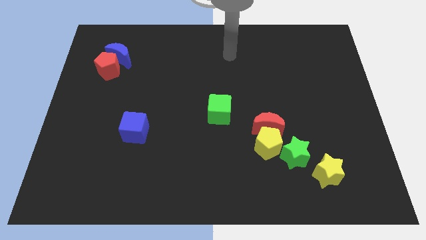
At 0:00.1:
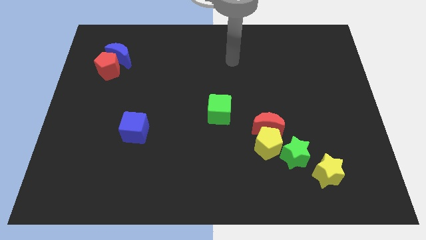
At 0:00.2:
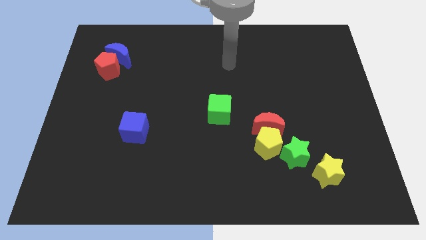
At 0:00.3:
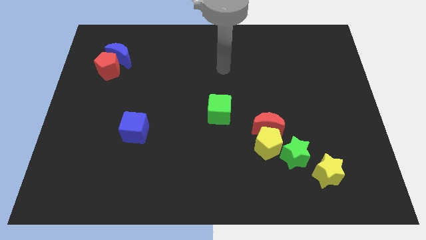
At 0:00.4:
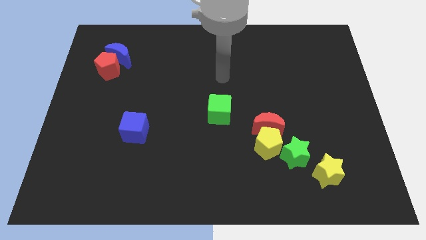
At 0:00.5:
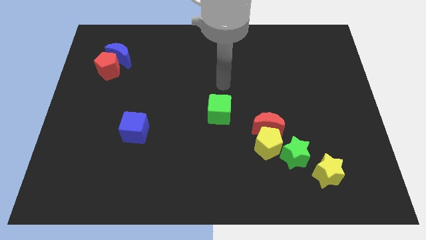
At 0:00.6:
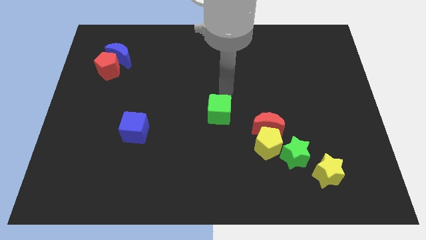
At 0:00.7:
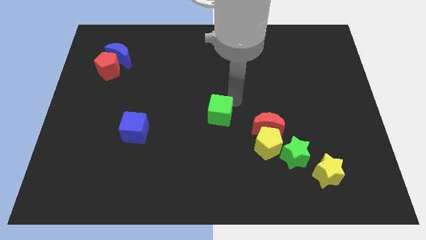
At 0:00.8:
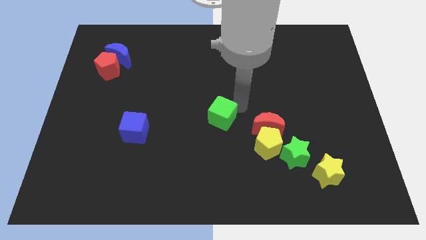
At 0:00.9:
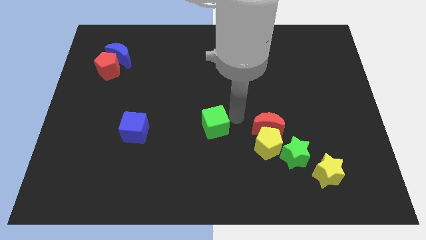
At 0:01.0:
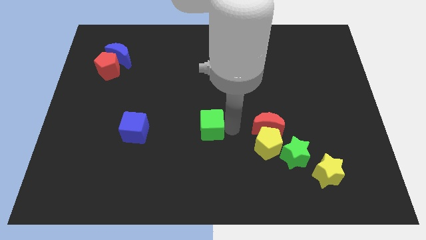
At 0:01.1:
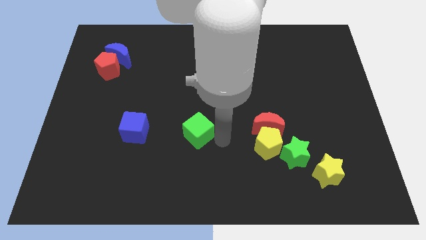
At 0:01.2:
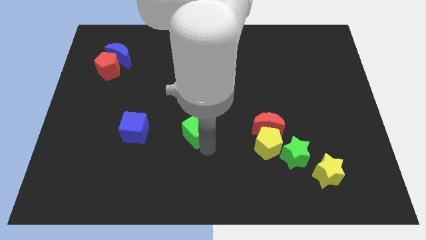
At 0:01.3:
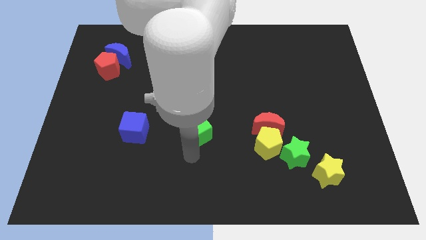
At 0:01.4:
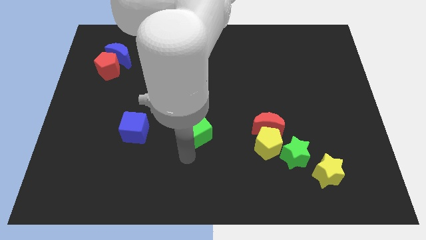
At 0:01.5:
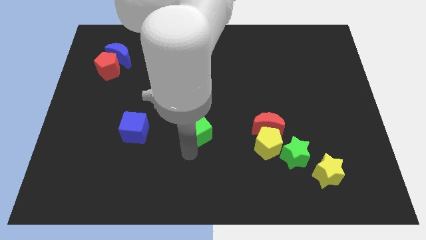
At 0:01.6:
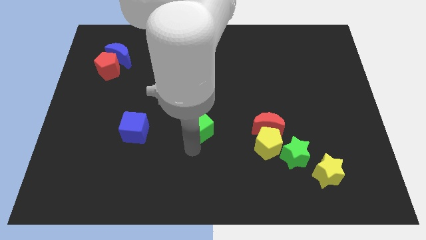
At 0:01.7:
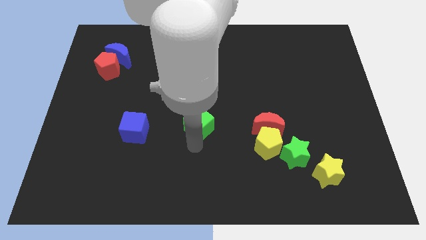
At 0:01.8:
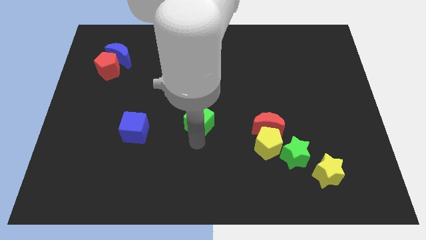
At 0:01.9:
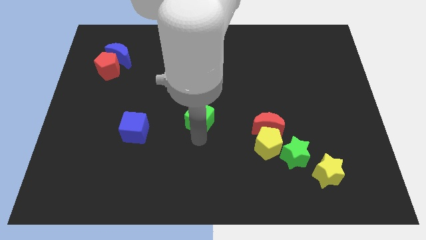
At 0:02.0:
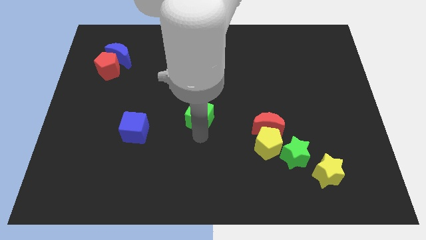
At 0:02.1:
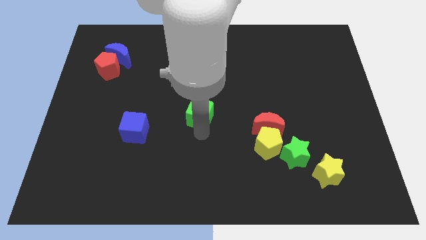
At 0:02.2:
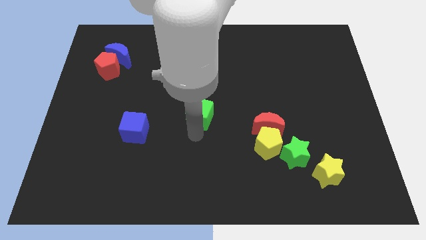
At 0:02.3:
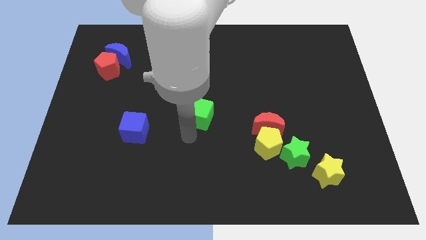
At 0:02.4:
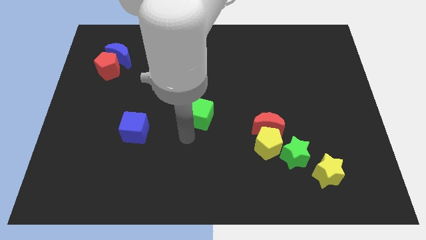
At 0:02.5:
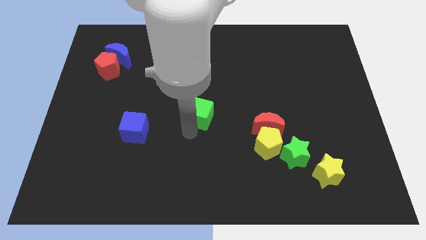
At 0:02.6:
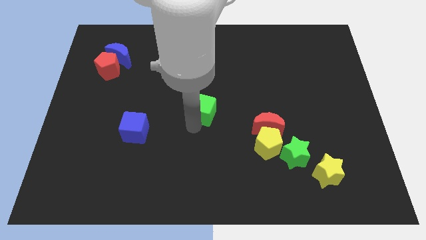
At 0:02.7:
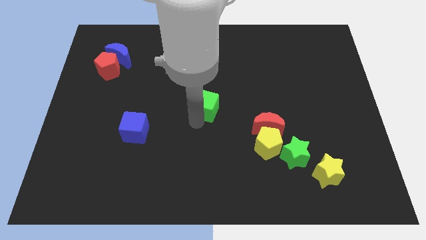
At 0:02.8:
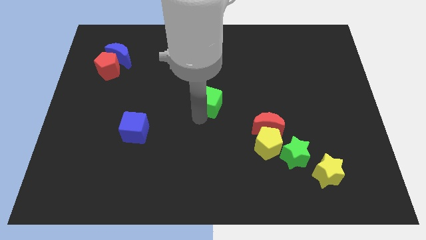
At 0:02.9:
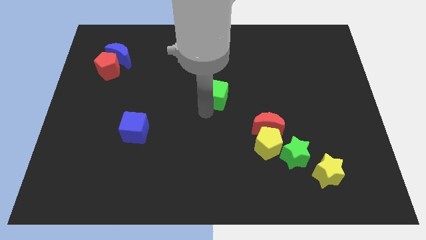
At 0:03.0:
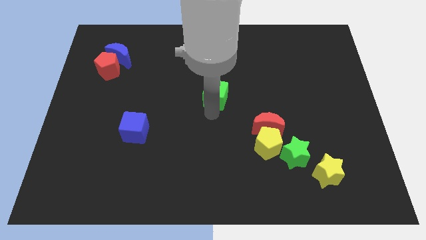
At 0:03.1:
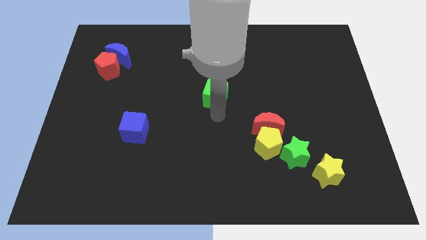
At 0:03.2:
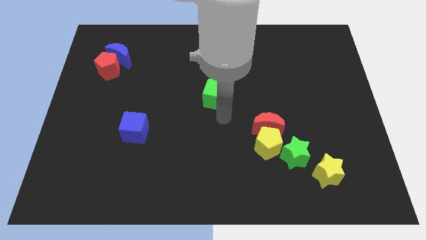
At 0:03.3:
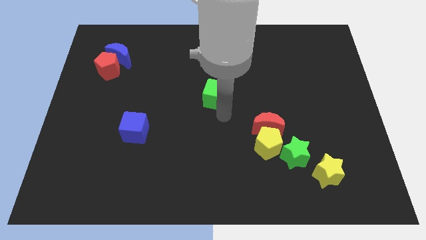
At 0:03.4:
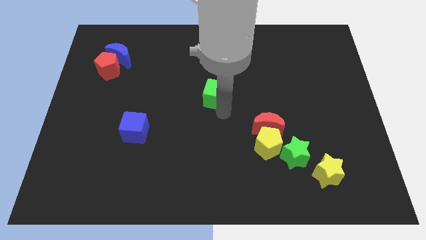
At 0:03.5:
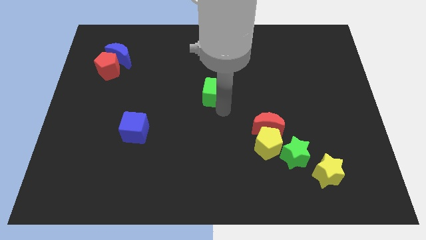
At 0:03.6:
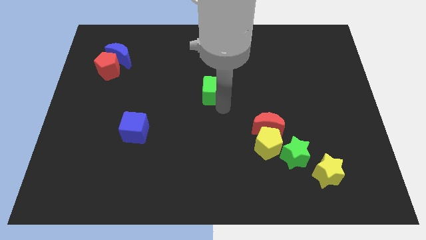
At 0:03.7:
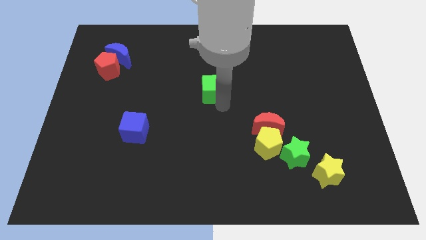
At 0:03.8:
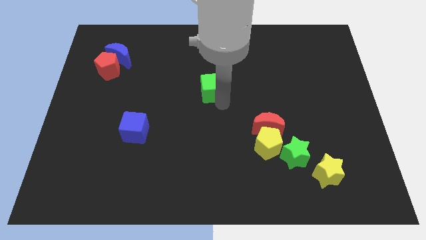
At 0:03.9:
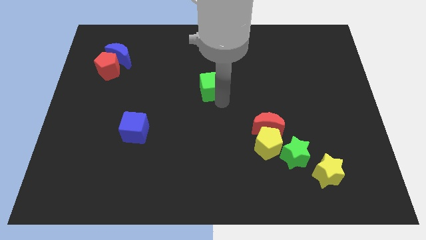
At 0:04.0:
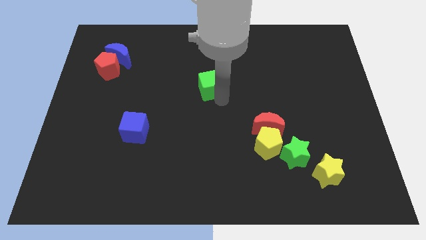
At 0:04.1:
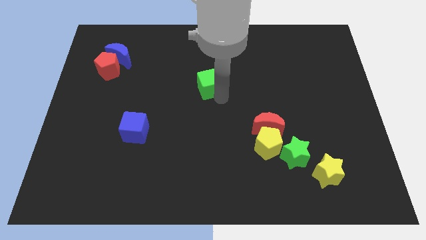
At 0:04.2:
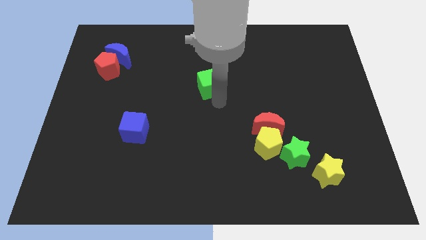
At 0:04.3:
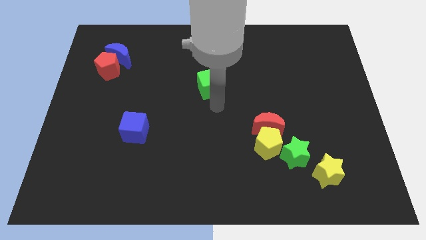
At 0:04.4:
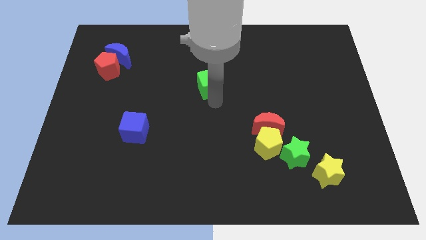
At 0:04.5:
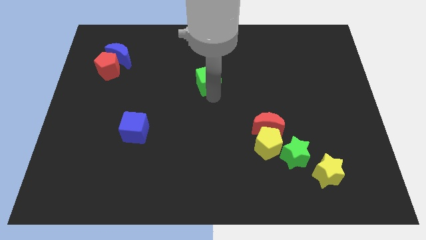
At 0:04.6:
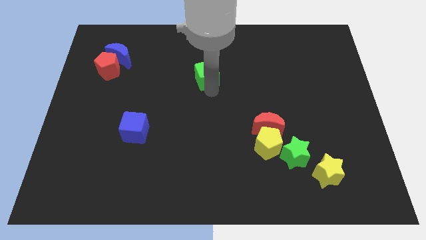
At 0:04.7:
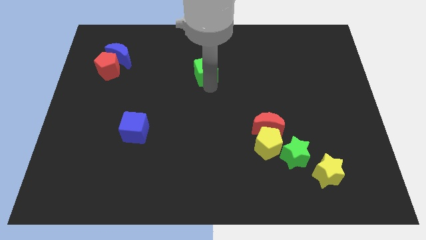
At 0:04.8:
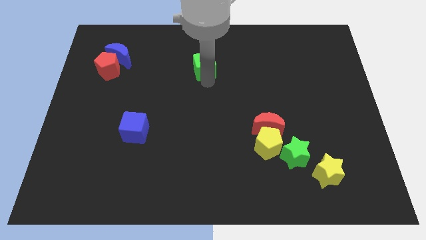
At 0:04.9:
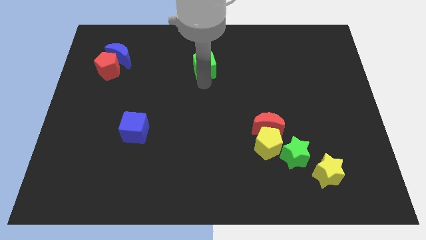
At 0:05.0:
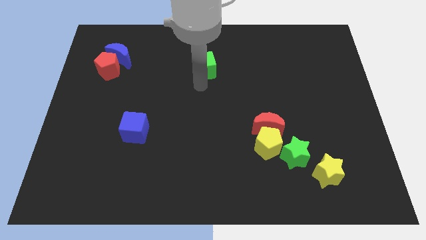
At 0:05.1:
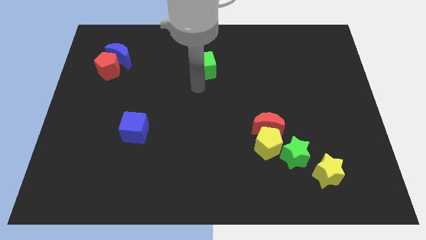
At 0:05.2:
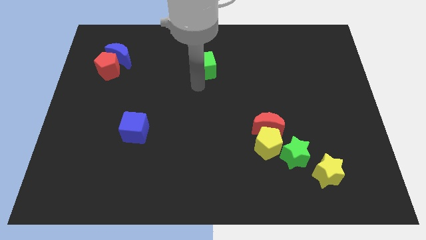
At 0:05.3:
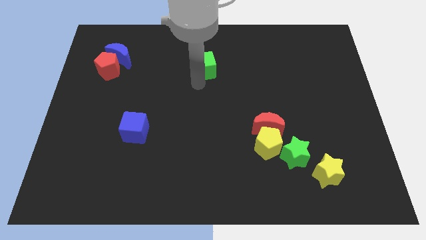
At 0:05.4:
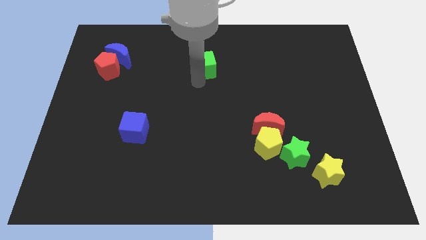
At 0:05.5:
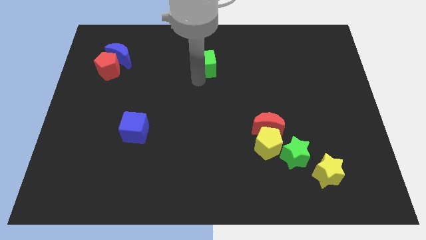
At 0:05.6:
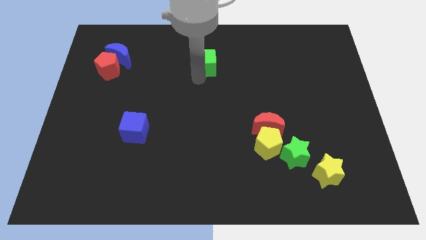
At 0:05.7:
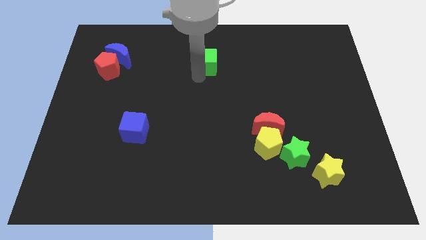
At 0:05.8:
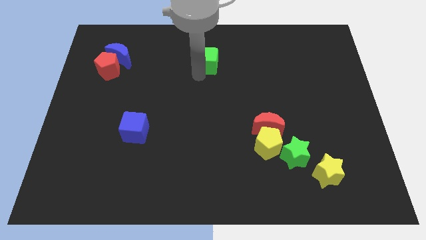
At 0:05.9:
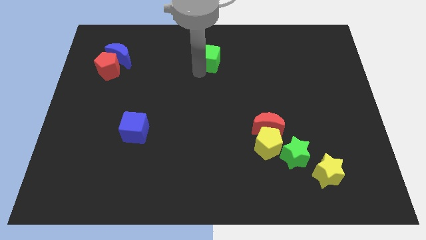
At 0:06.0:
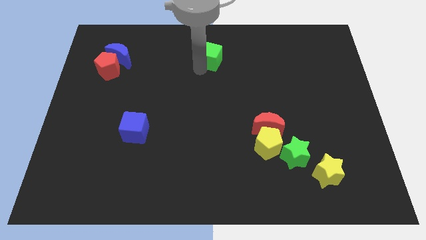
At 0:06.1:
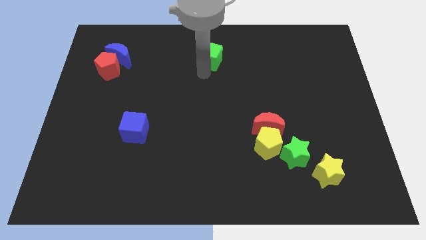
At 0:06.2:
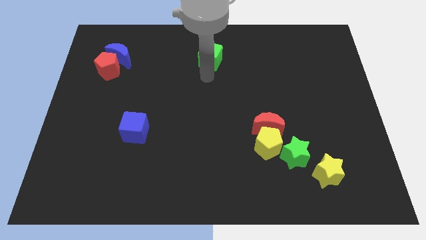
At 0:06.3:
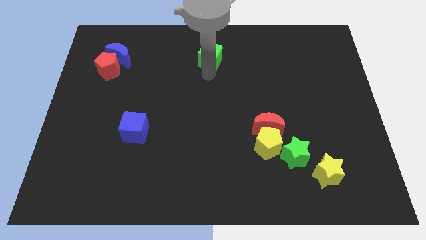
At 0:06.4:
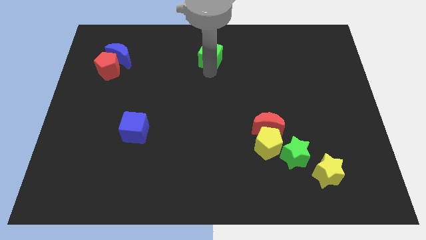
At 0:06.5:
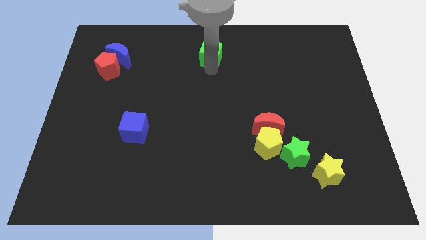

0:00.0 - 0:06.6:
move the green cube to the top side
